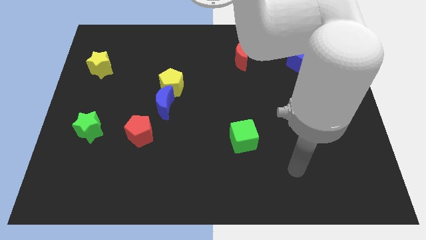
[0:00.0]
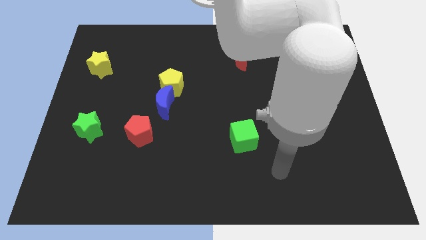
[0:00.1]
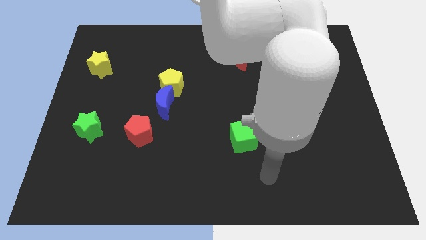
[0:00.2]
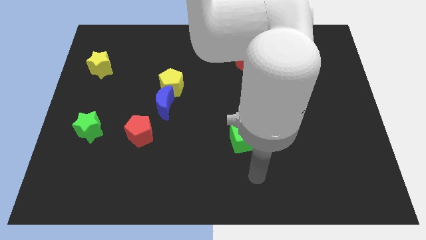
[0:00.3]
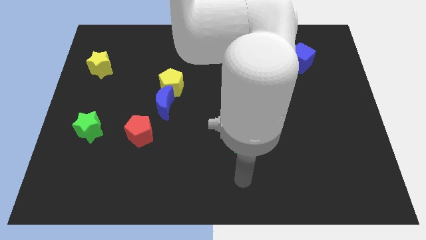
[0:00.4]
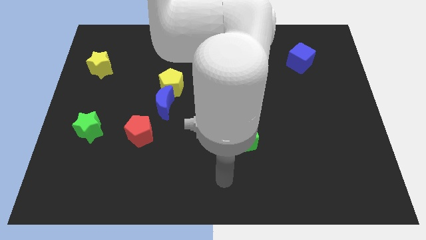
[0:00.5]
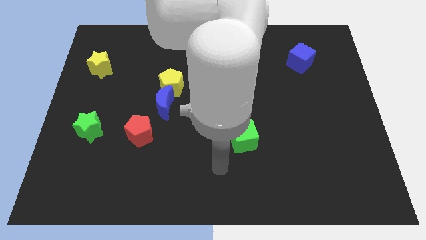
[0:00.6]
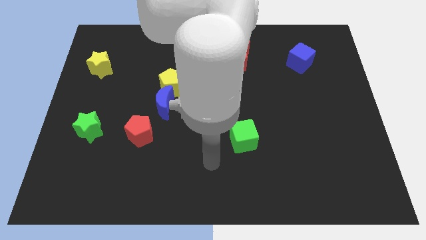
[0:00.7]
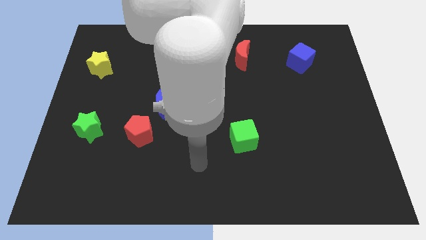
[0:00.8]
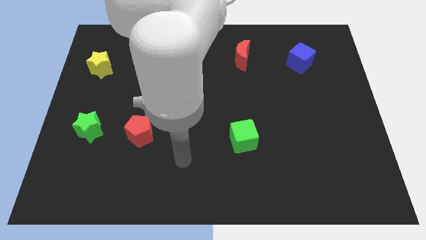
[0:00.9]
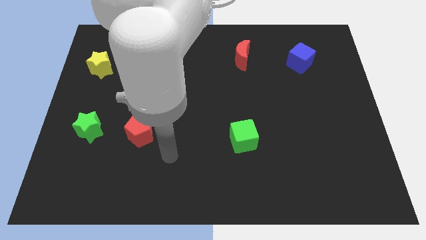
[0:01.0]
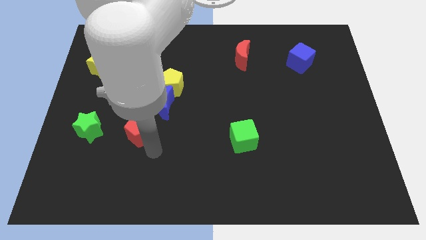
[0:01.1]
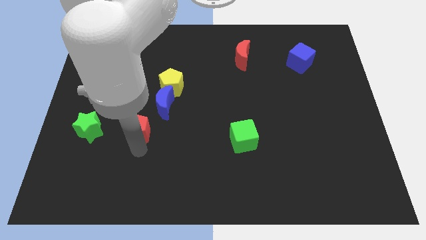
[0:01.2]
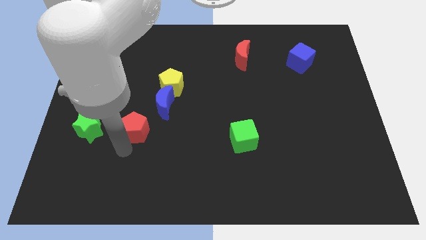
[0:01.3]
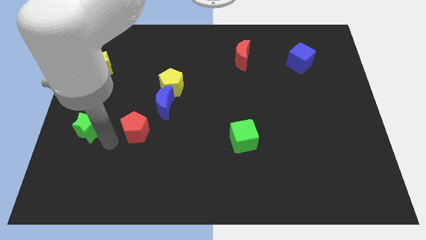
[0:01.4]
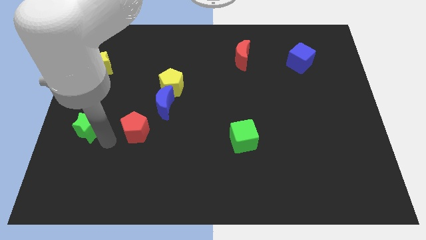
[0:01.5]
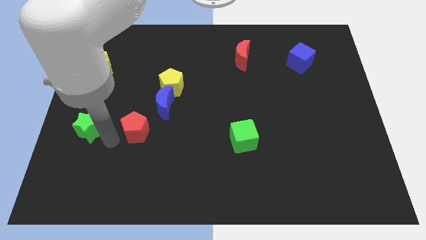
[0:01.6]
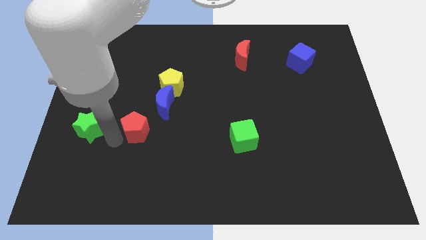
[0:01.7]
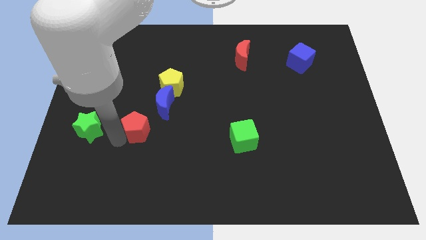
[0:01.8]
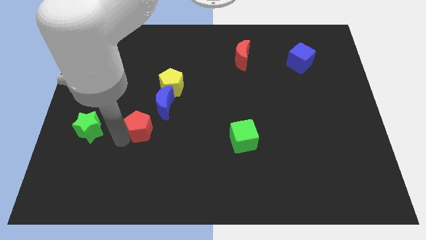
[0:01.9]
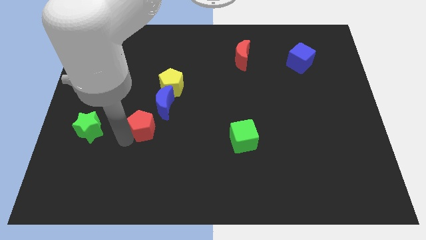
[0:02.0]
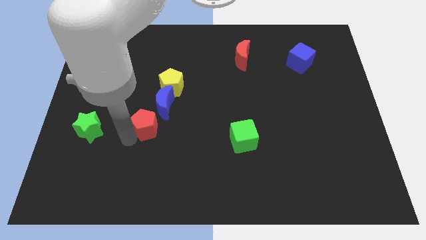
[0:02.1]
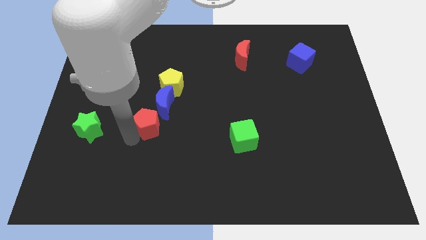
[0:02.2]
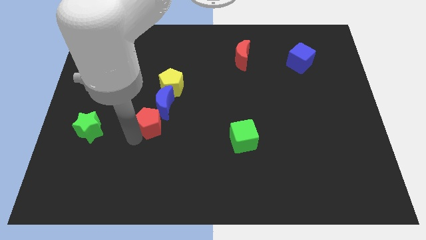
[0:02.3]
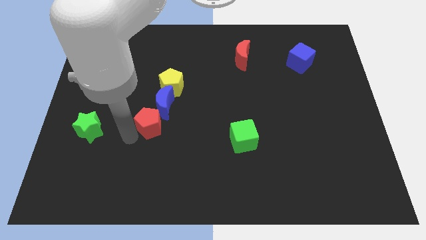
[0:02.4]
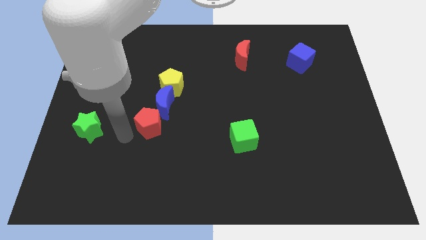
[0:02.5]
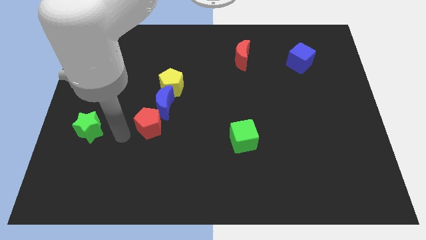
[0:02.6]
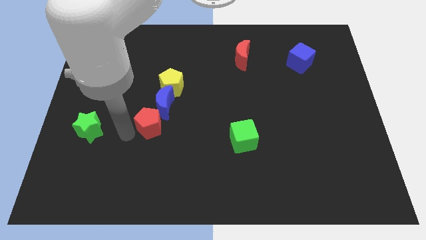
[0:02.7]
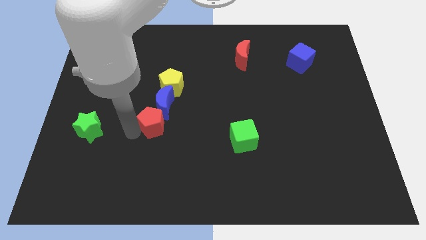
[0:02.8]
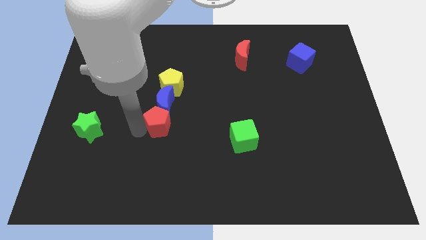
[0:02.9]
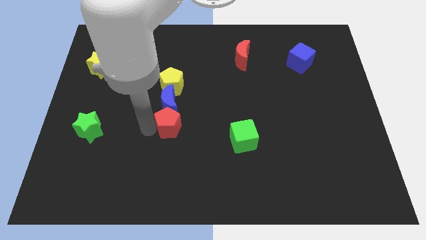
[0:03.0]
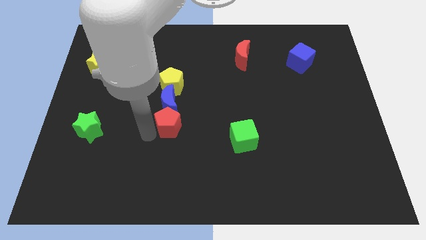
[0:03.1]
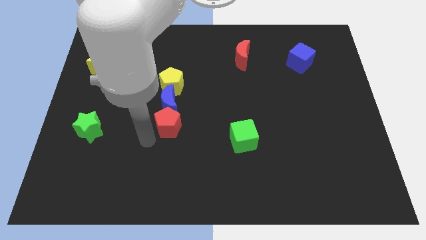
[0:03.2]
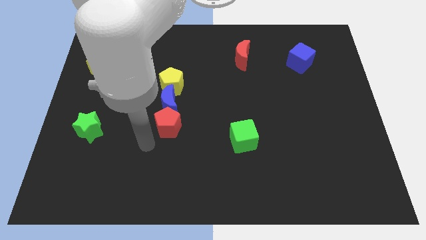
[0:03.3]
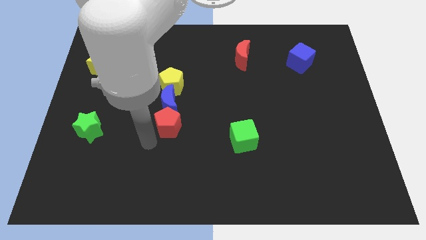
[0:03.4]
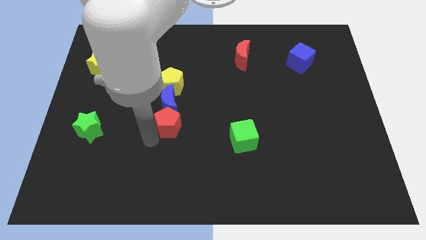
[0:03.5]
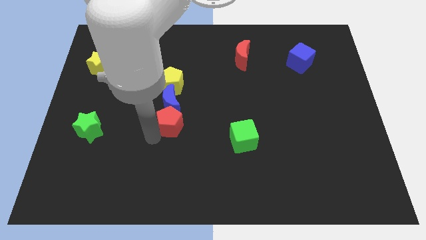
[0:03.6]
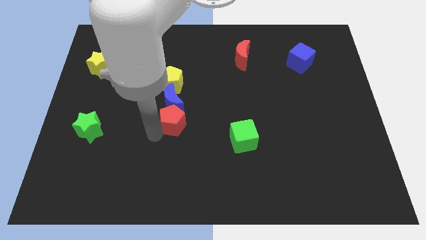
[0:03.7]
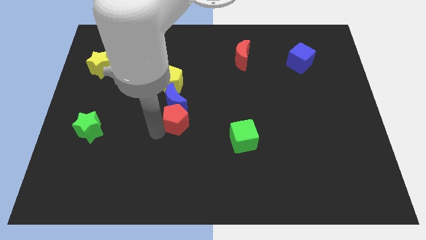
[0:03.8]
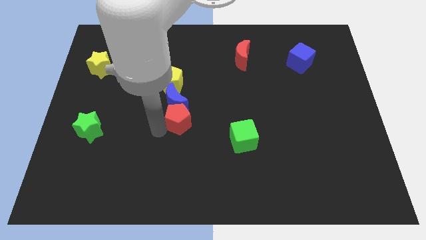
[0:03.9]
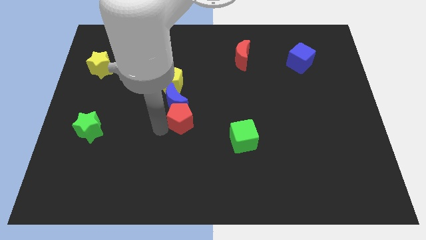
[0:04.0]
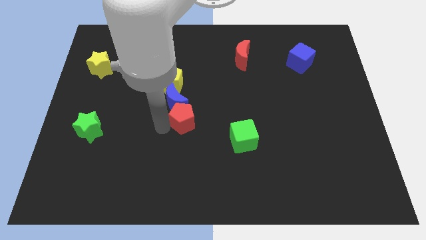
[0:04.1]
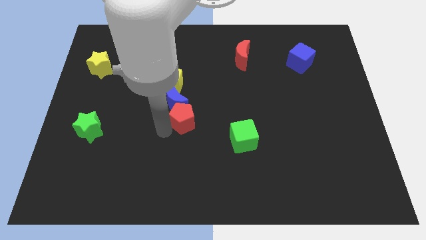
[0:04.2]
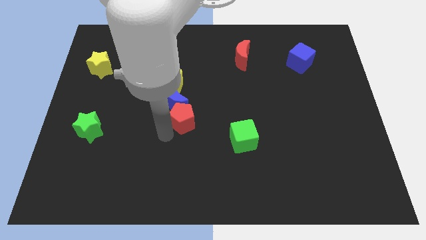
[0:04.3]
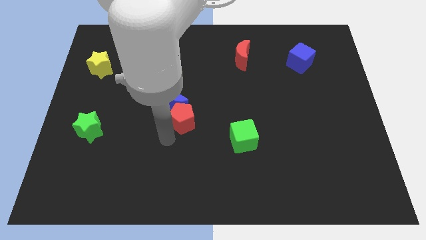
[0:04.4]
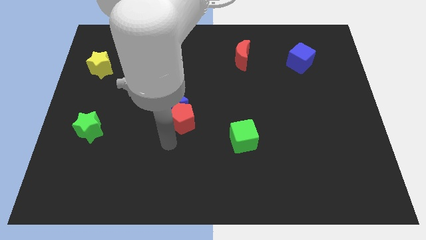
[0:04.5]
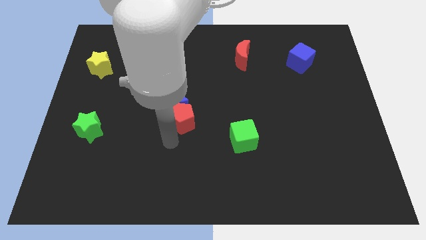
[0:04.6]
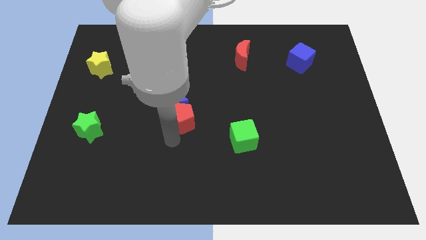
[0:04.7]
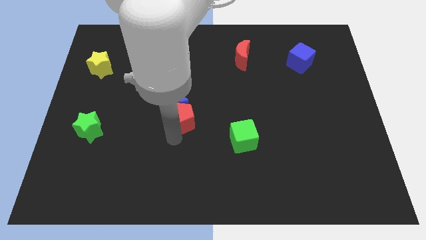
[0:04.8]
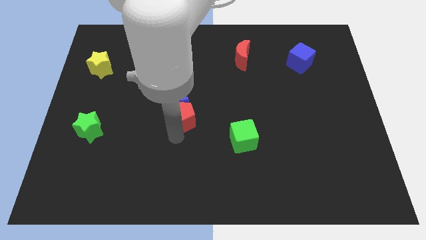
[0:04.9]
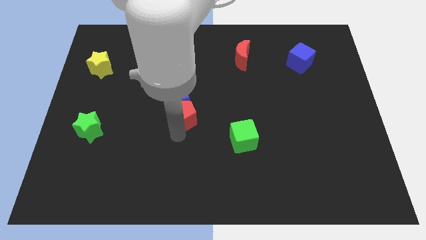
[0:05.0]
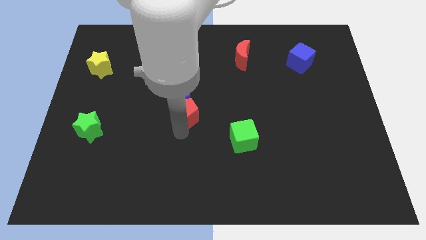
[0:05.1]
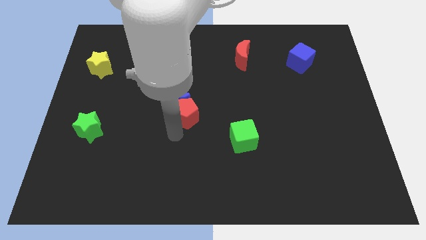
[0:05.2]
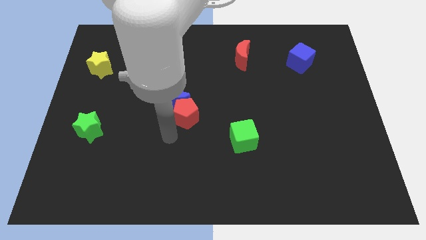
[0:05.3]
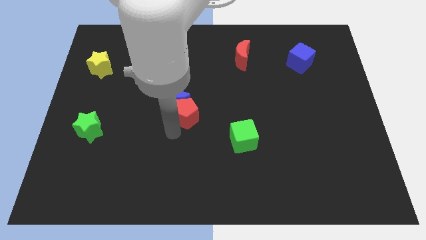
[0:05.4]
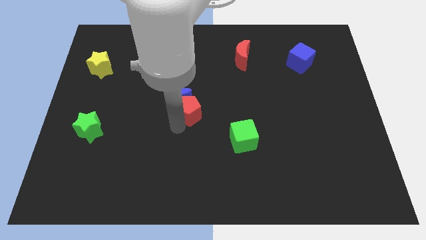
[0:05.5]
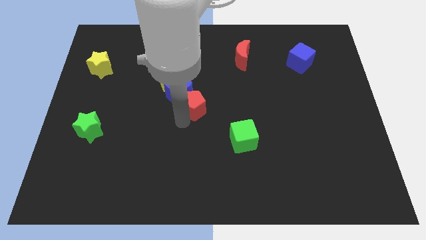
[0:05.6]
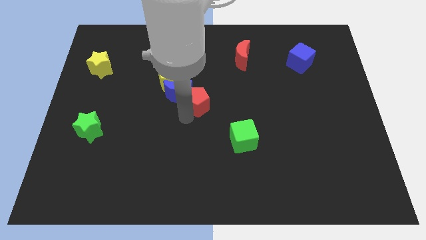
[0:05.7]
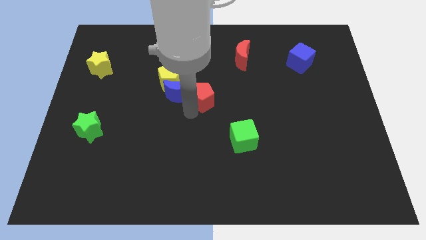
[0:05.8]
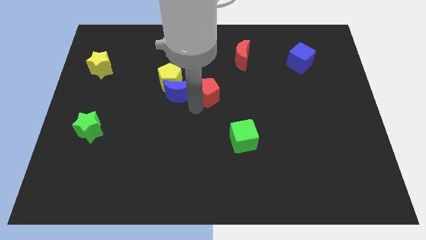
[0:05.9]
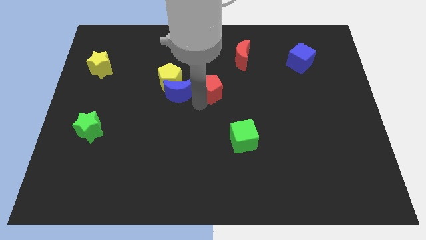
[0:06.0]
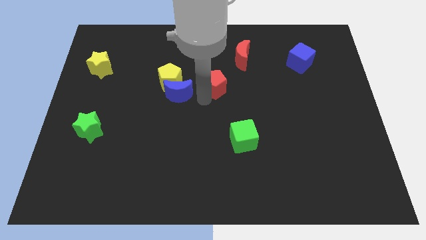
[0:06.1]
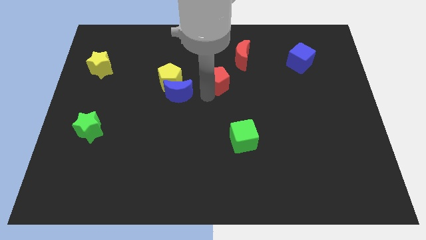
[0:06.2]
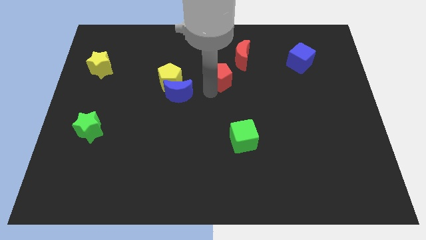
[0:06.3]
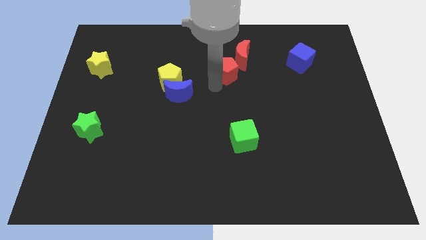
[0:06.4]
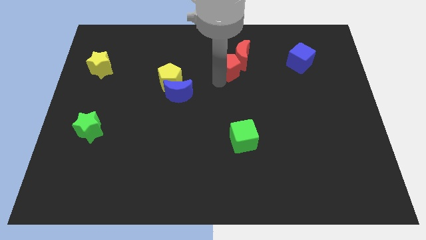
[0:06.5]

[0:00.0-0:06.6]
push the red pentagon next to the red moon
